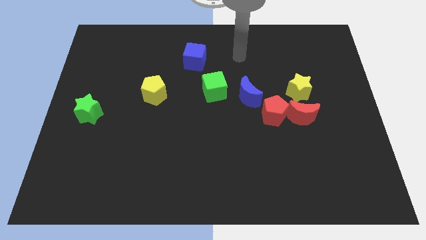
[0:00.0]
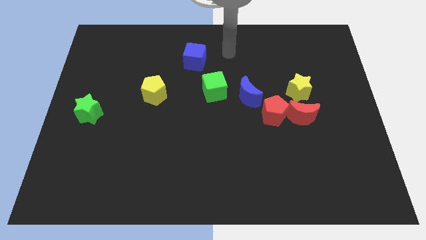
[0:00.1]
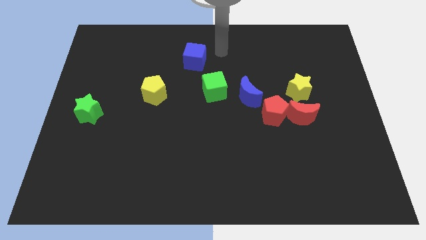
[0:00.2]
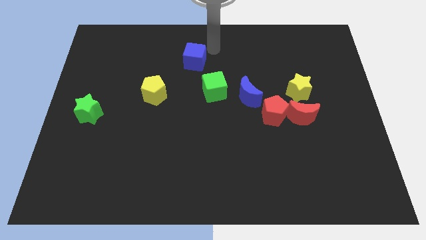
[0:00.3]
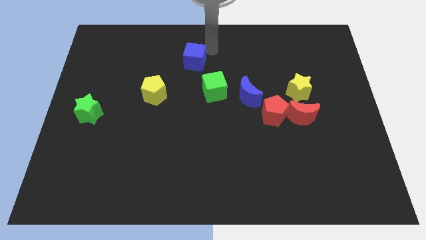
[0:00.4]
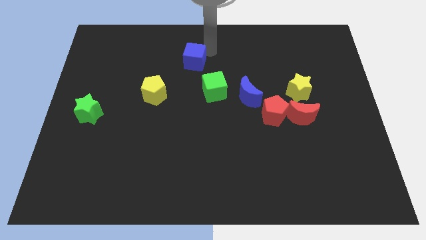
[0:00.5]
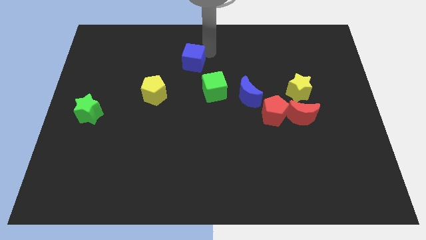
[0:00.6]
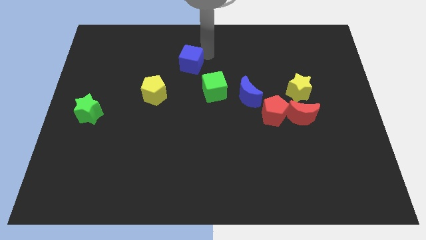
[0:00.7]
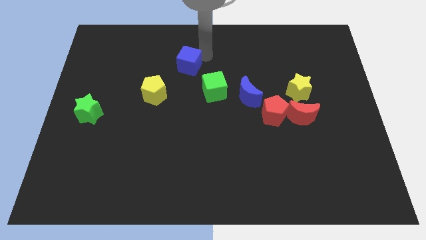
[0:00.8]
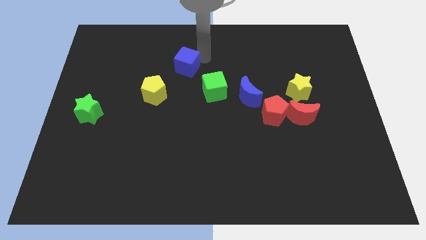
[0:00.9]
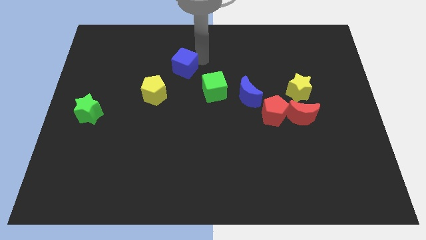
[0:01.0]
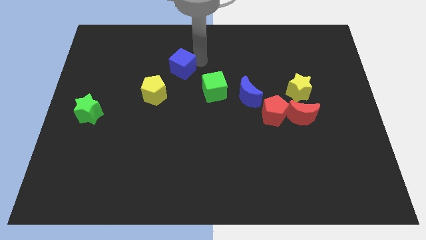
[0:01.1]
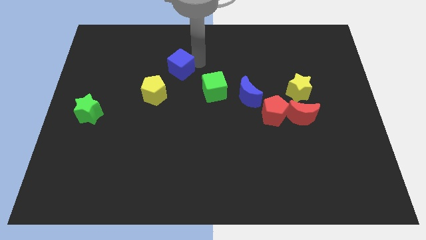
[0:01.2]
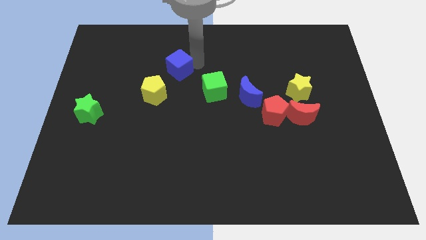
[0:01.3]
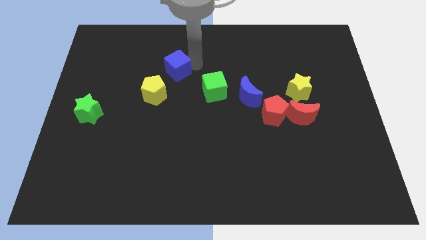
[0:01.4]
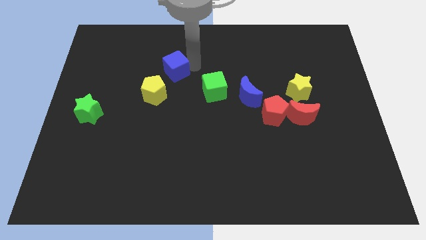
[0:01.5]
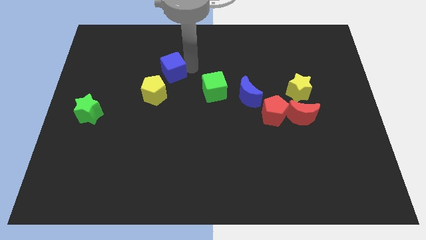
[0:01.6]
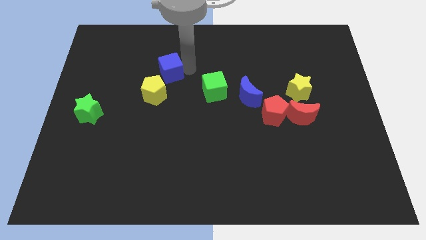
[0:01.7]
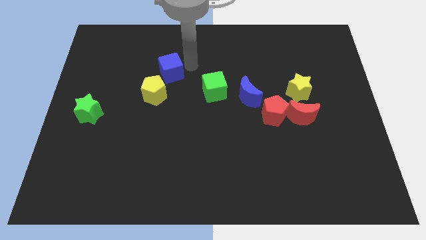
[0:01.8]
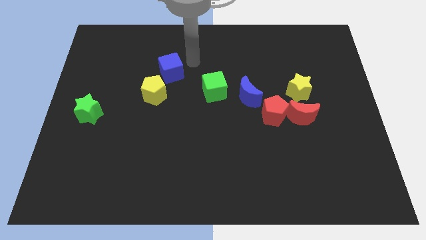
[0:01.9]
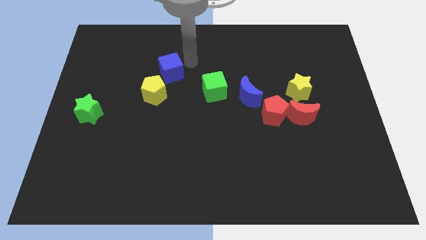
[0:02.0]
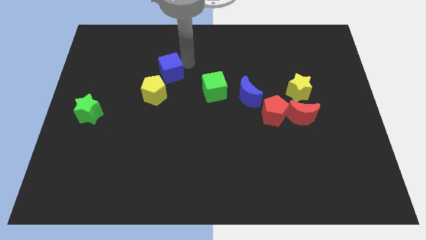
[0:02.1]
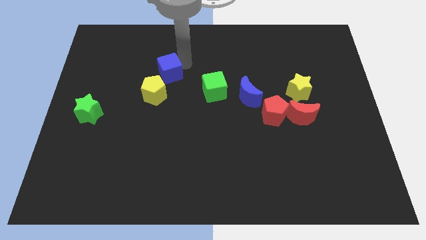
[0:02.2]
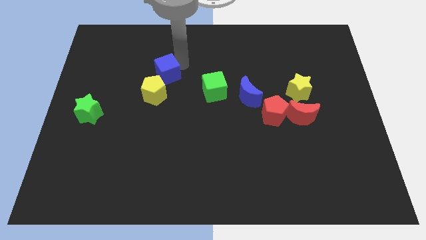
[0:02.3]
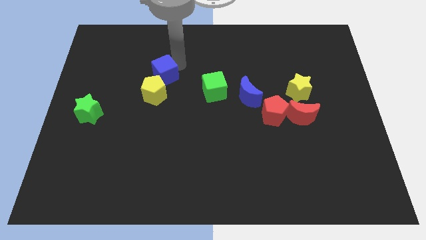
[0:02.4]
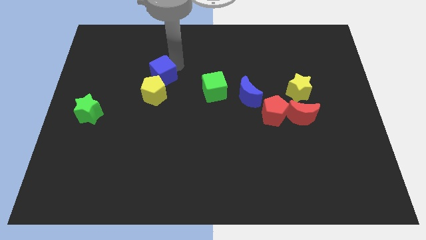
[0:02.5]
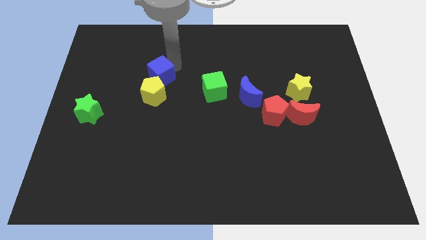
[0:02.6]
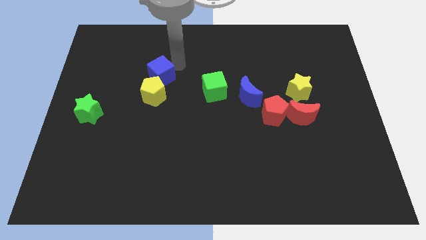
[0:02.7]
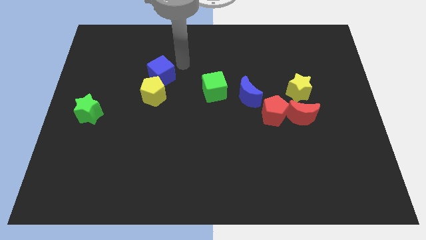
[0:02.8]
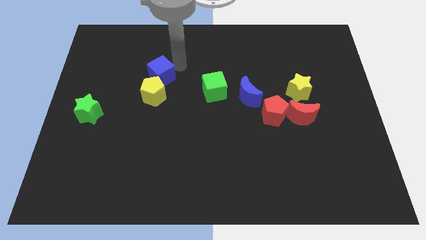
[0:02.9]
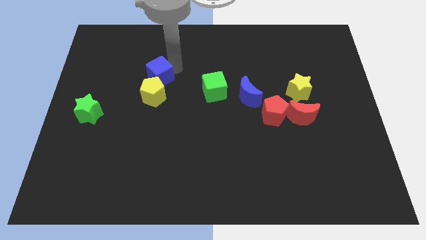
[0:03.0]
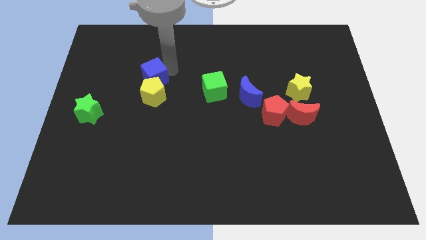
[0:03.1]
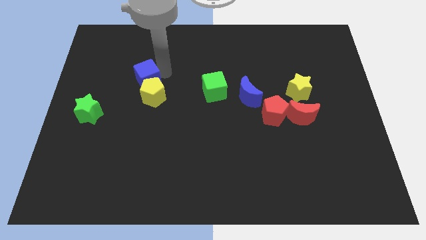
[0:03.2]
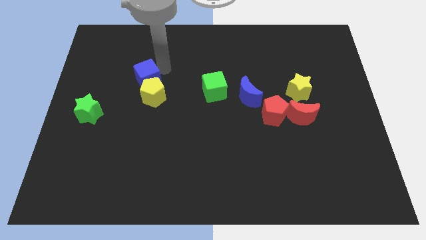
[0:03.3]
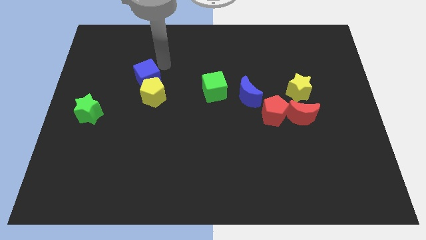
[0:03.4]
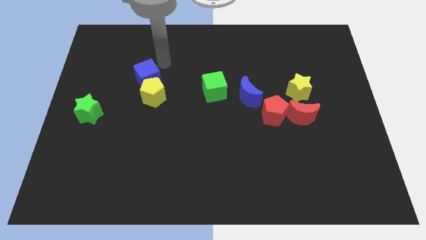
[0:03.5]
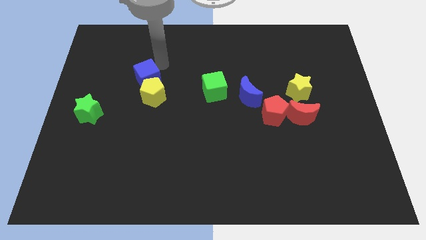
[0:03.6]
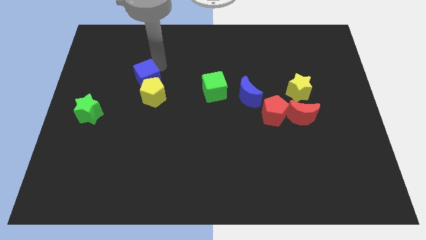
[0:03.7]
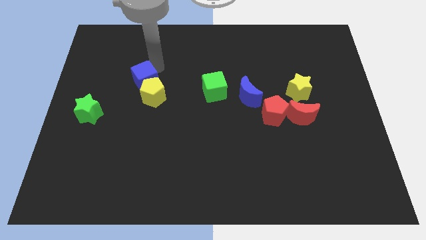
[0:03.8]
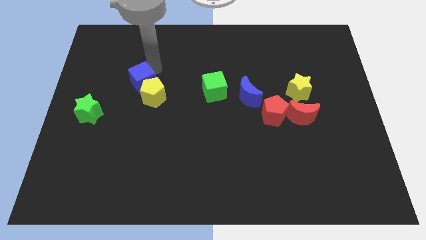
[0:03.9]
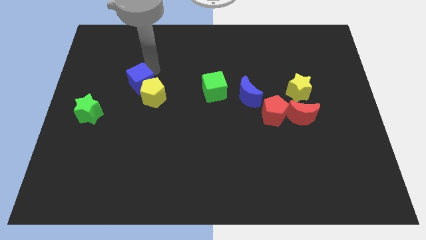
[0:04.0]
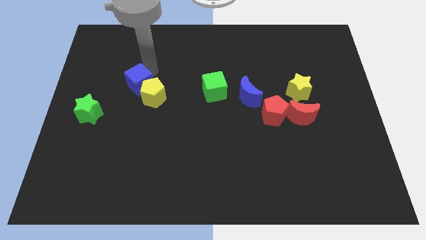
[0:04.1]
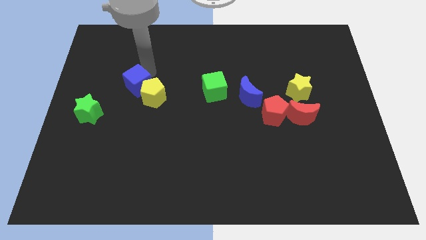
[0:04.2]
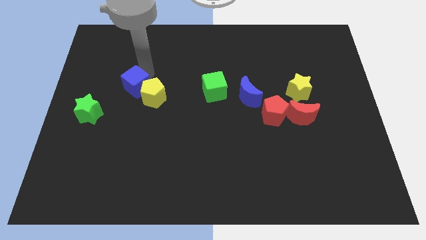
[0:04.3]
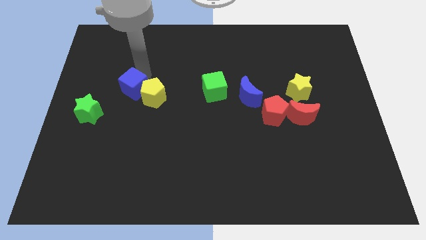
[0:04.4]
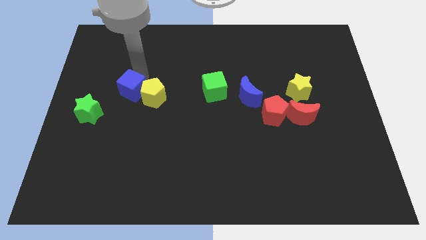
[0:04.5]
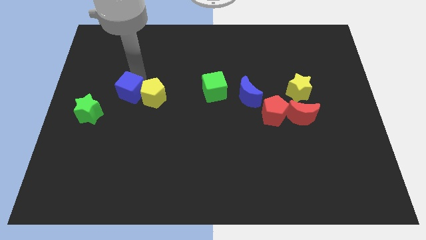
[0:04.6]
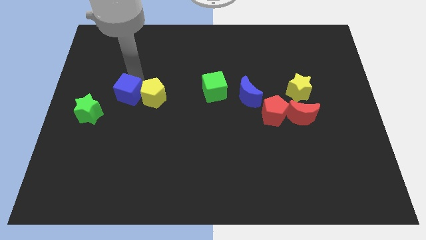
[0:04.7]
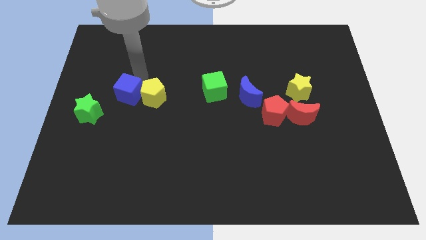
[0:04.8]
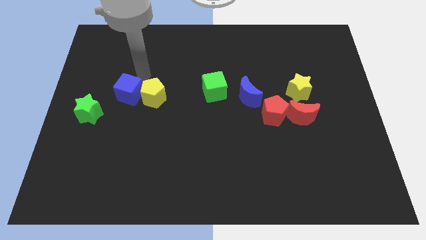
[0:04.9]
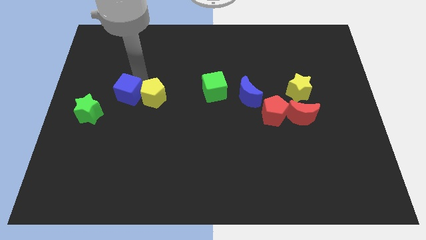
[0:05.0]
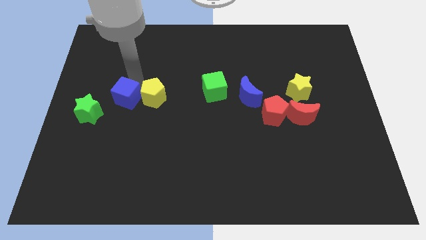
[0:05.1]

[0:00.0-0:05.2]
slide the blue cube down and to the left

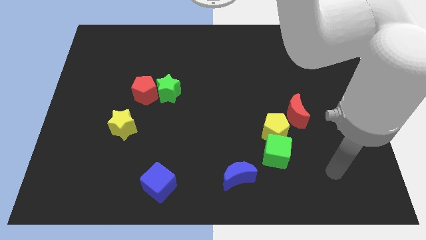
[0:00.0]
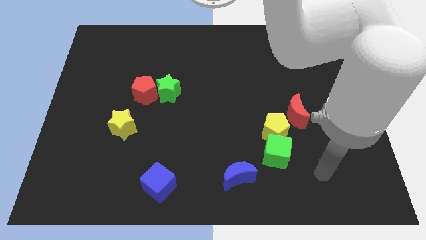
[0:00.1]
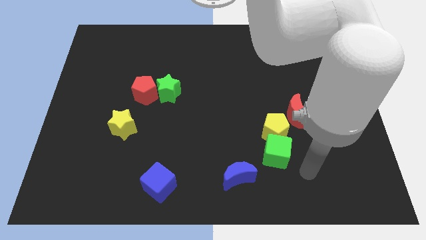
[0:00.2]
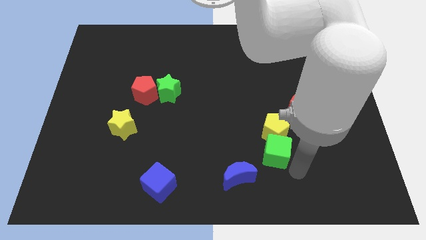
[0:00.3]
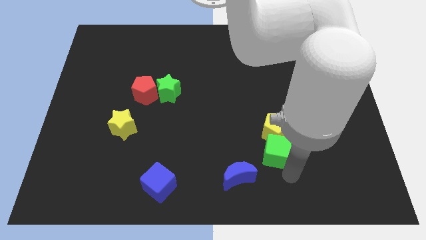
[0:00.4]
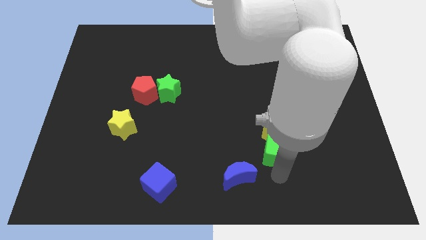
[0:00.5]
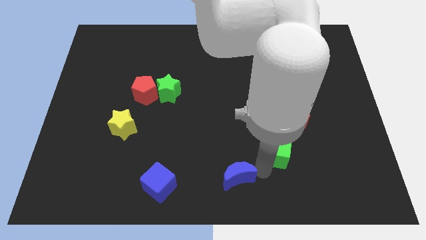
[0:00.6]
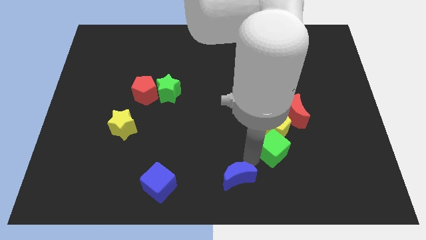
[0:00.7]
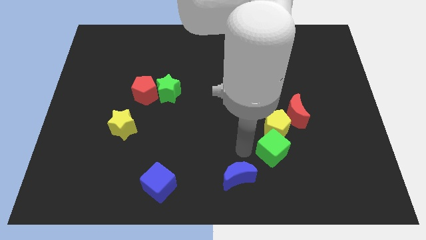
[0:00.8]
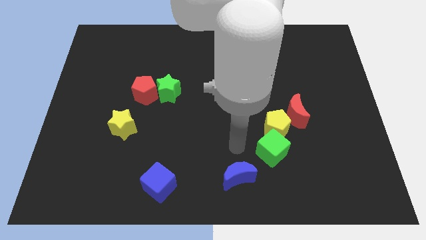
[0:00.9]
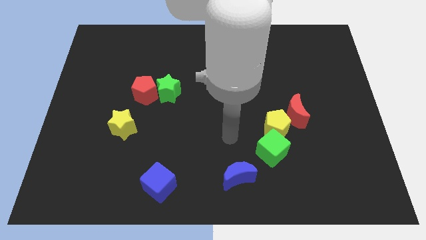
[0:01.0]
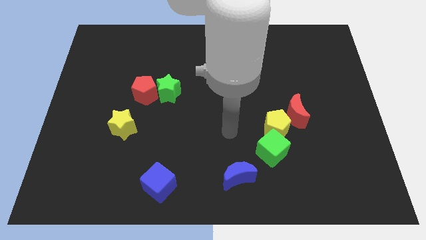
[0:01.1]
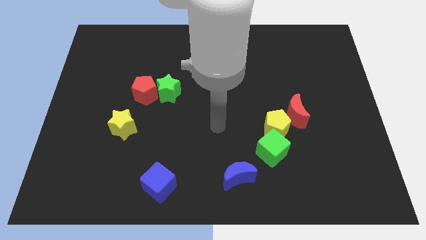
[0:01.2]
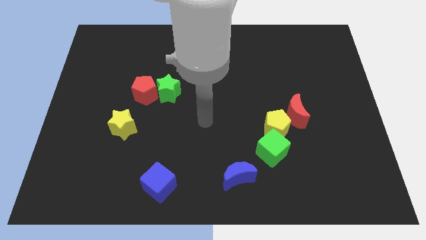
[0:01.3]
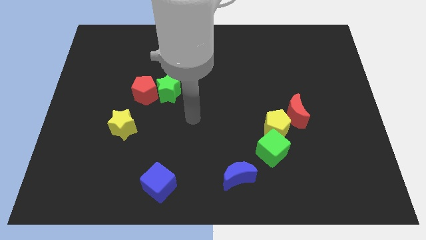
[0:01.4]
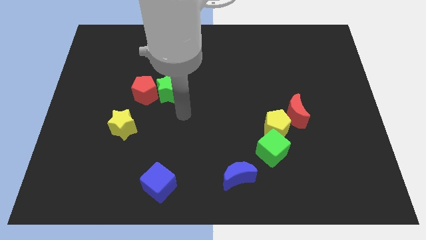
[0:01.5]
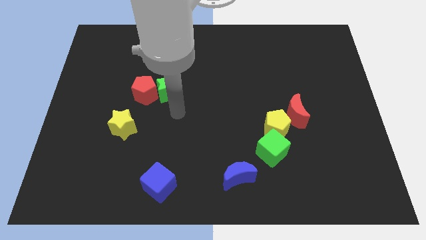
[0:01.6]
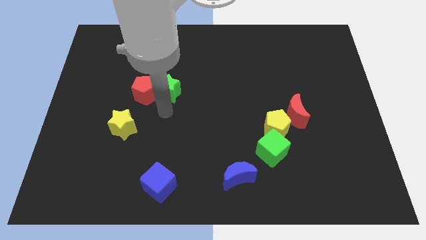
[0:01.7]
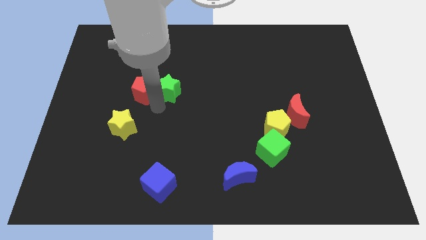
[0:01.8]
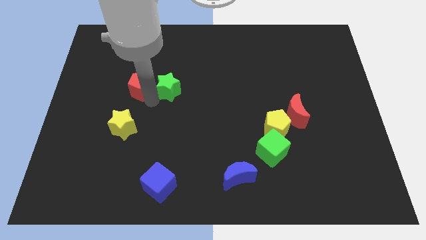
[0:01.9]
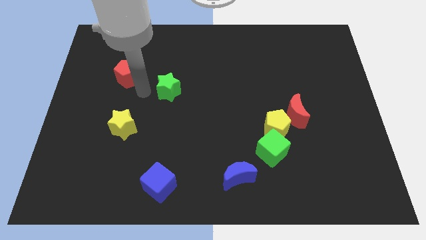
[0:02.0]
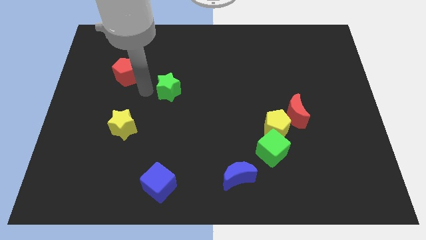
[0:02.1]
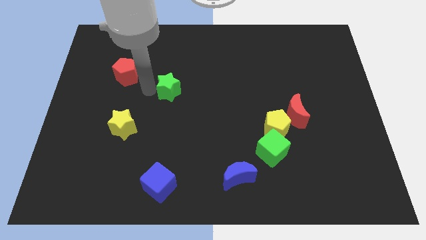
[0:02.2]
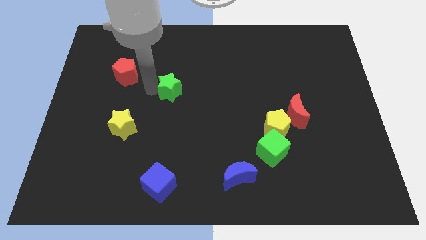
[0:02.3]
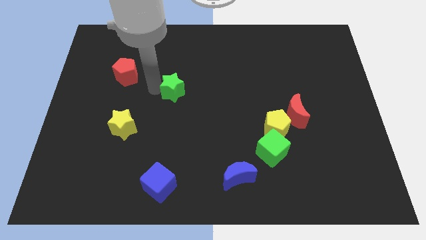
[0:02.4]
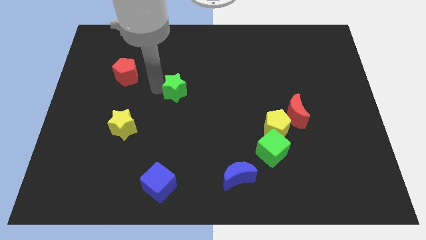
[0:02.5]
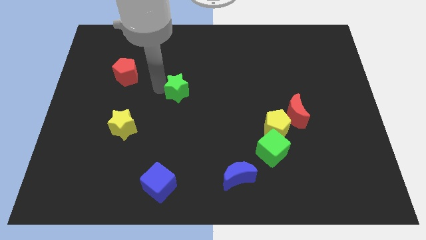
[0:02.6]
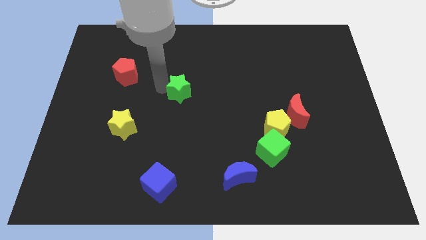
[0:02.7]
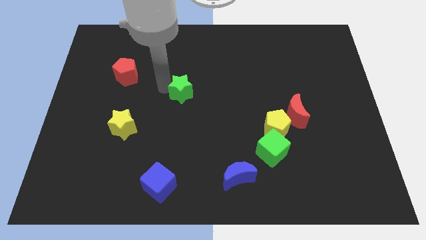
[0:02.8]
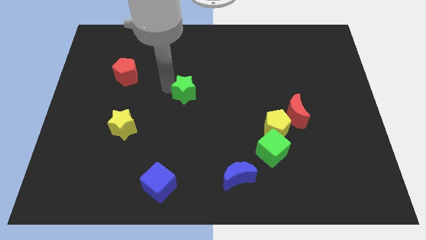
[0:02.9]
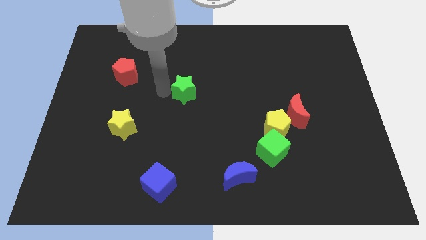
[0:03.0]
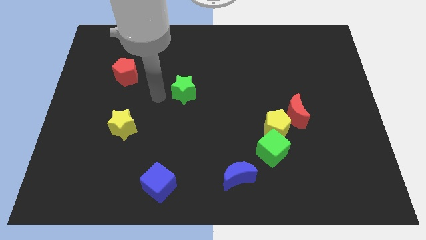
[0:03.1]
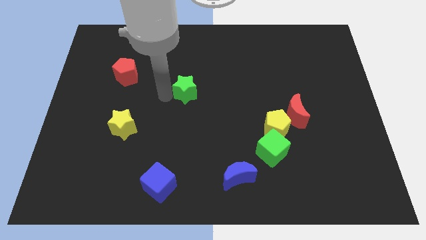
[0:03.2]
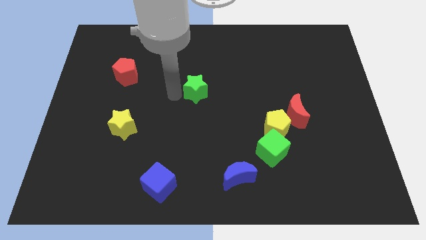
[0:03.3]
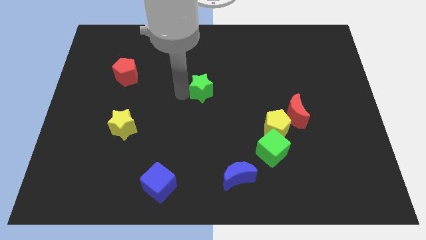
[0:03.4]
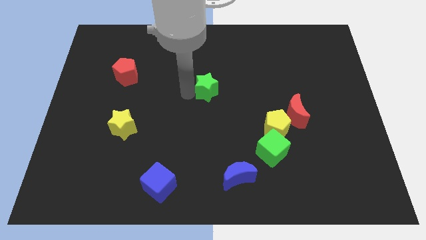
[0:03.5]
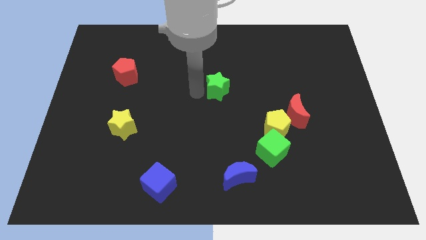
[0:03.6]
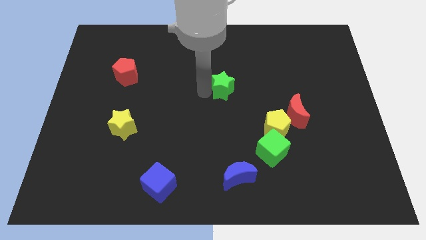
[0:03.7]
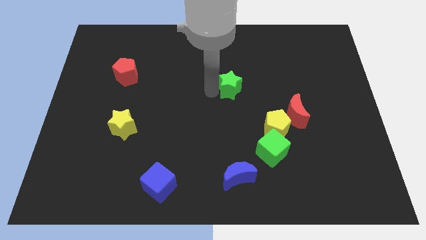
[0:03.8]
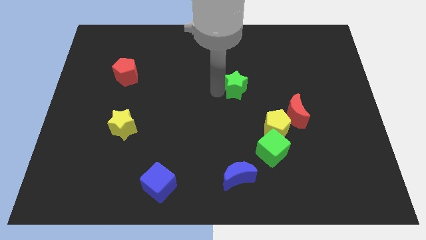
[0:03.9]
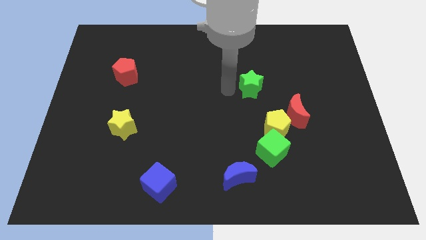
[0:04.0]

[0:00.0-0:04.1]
push the green star right
